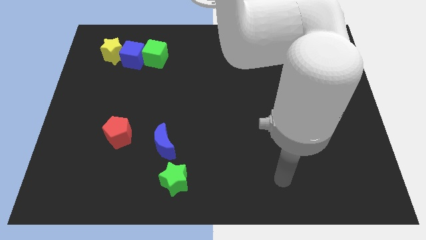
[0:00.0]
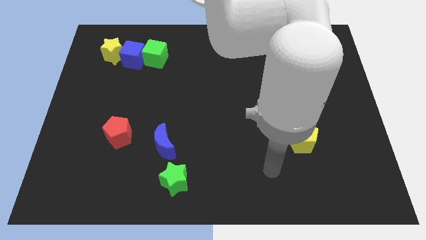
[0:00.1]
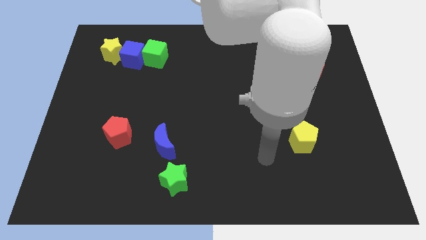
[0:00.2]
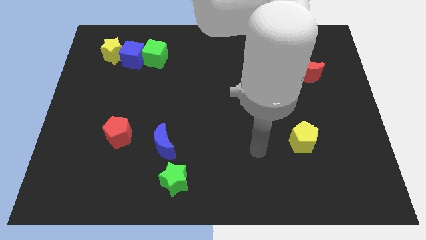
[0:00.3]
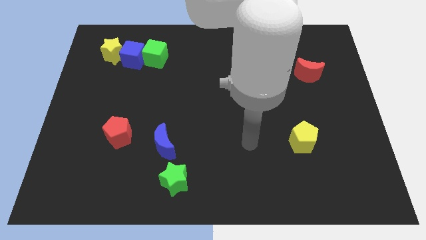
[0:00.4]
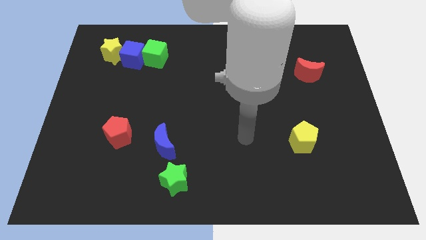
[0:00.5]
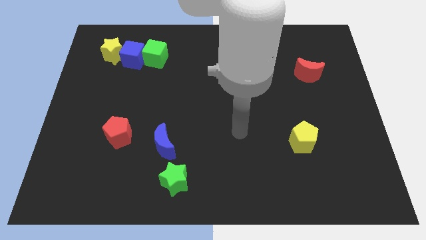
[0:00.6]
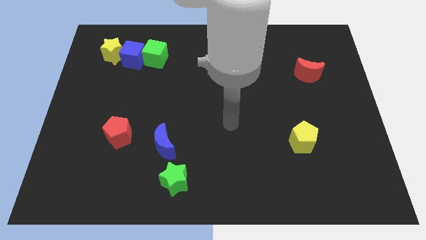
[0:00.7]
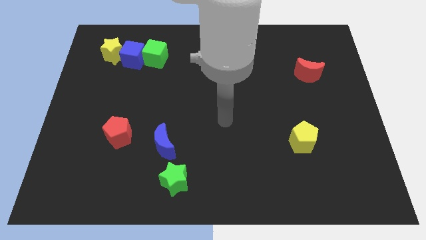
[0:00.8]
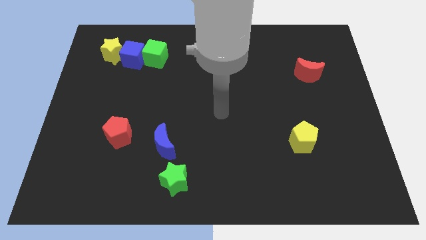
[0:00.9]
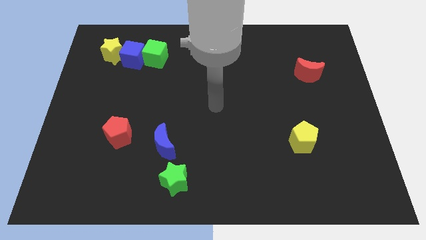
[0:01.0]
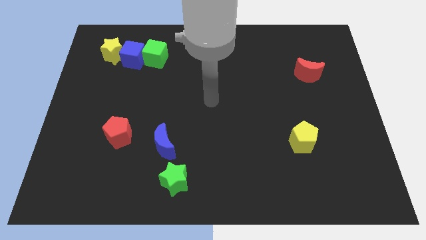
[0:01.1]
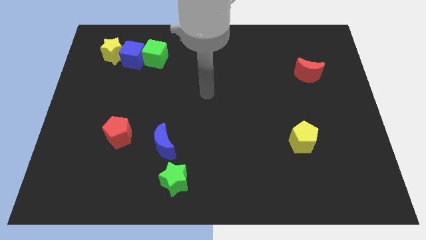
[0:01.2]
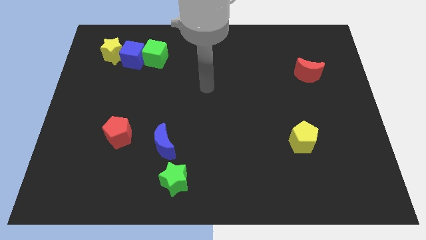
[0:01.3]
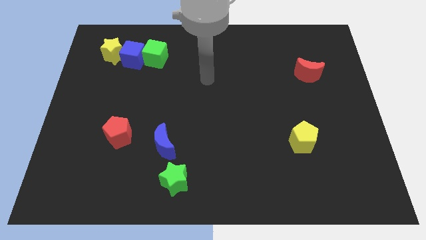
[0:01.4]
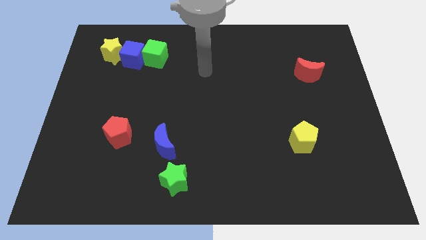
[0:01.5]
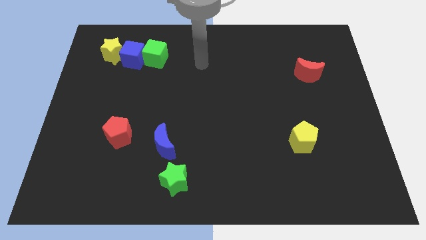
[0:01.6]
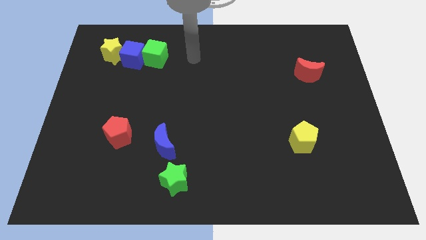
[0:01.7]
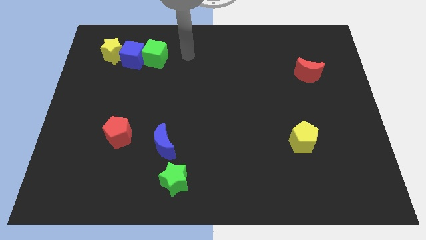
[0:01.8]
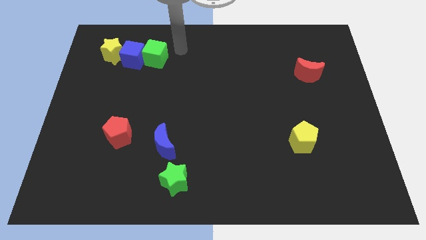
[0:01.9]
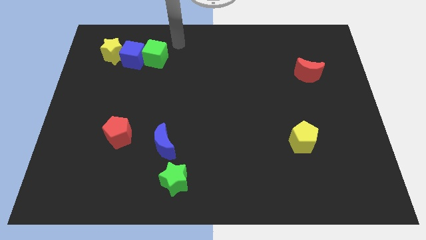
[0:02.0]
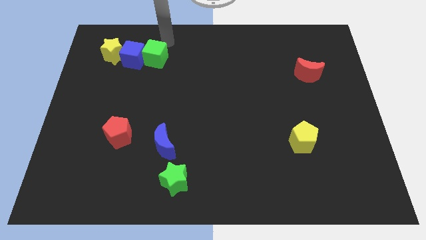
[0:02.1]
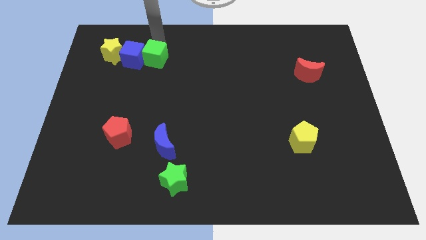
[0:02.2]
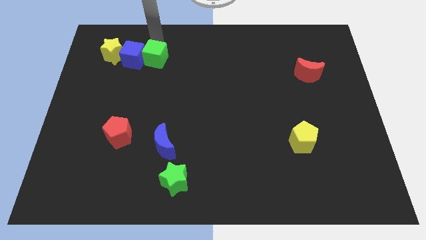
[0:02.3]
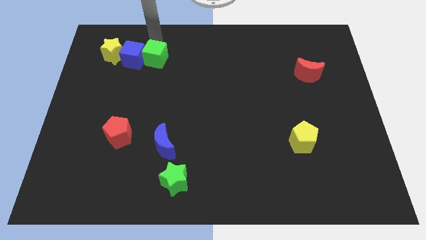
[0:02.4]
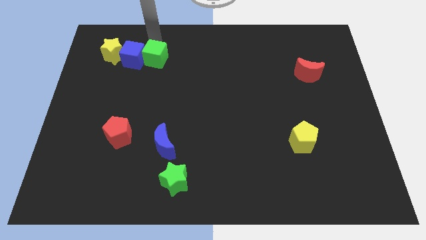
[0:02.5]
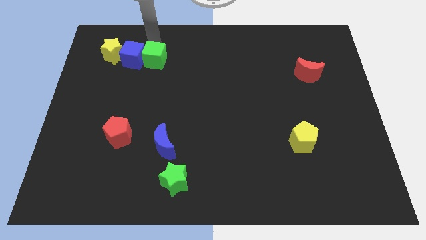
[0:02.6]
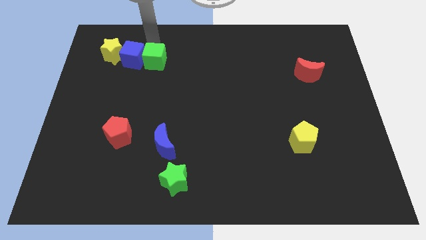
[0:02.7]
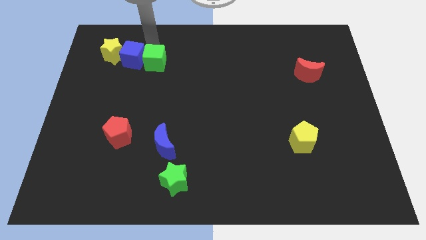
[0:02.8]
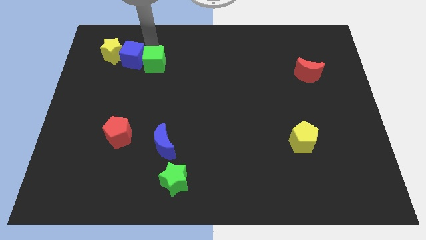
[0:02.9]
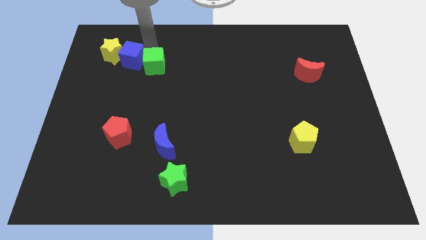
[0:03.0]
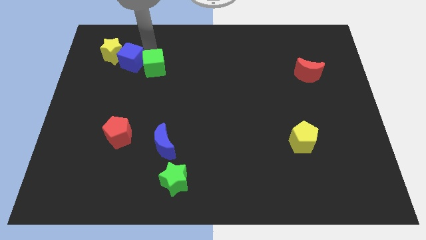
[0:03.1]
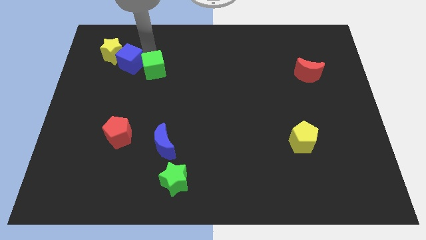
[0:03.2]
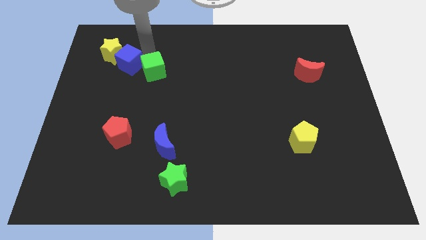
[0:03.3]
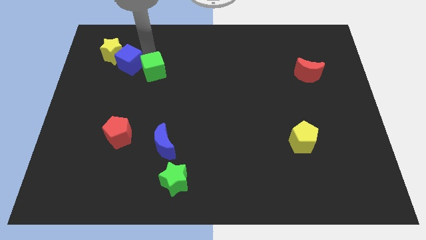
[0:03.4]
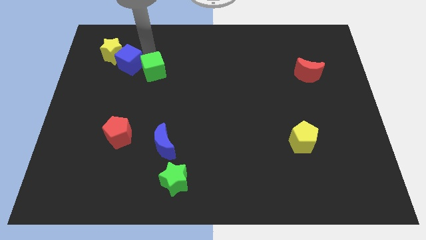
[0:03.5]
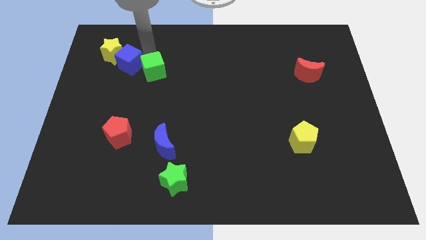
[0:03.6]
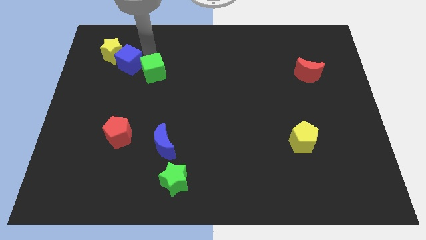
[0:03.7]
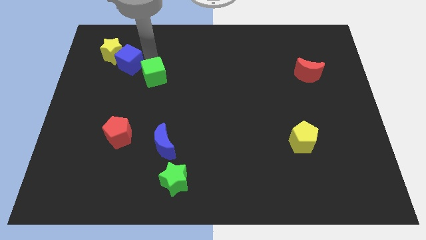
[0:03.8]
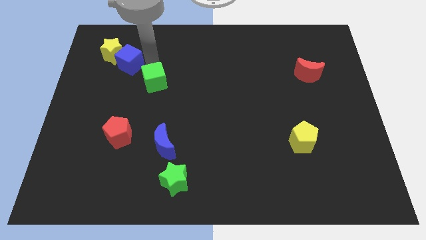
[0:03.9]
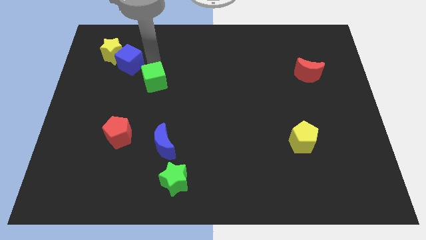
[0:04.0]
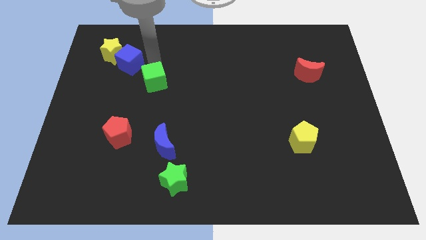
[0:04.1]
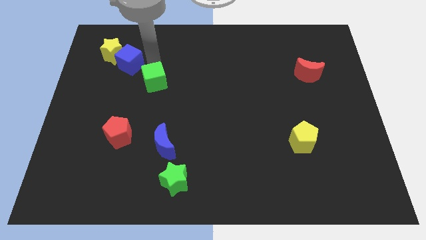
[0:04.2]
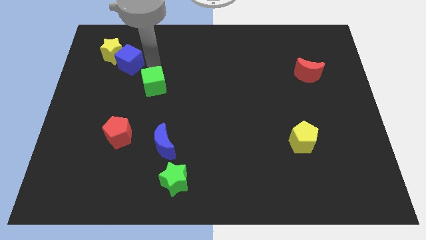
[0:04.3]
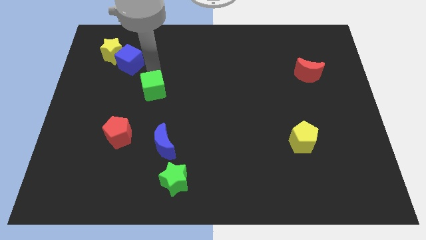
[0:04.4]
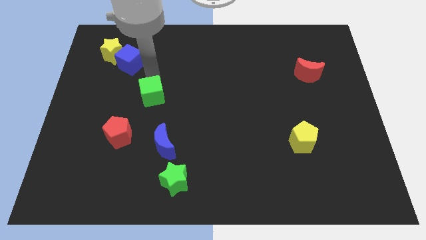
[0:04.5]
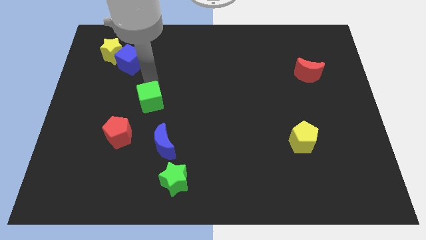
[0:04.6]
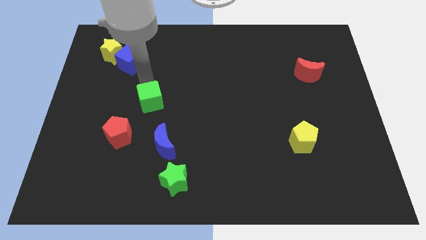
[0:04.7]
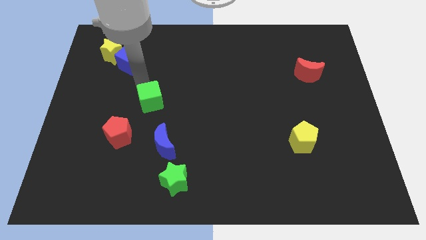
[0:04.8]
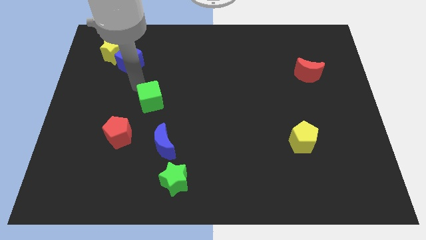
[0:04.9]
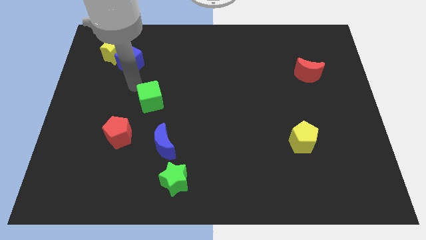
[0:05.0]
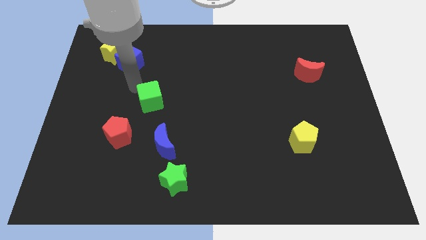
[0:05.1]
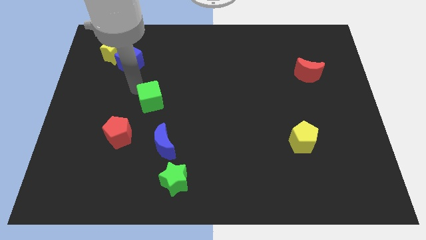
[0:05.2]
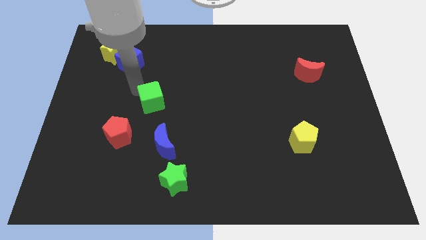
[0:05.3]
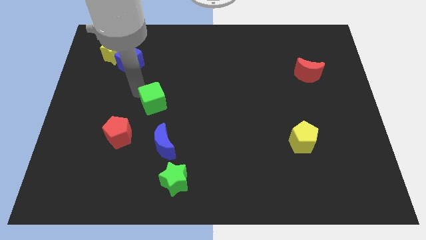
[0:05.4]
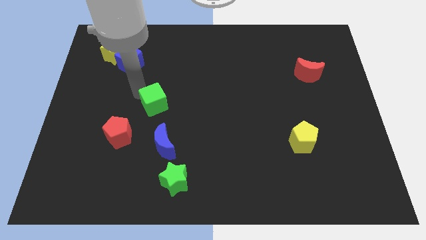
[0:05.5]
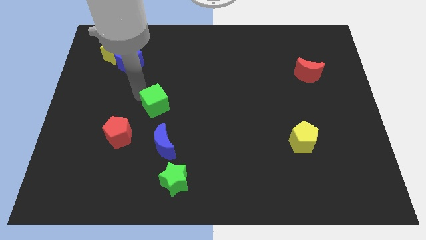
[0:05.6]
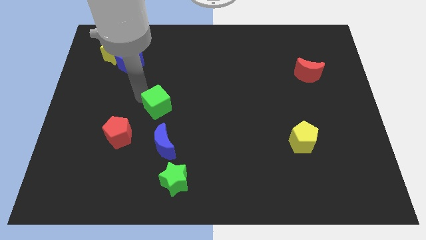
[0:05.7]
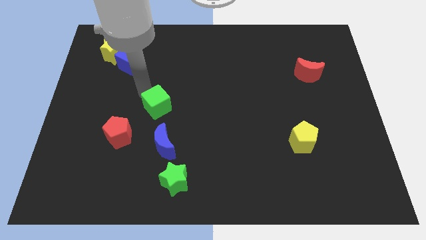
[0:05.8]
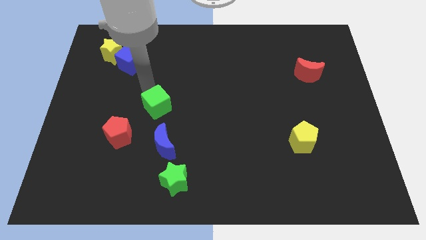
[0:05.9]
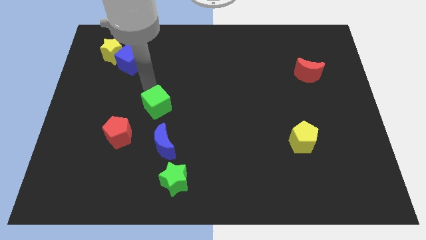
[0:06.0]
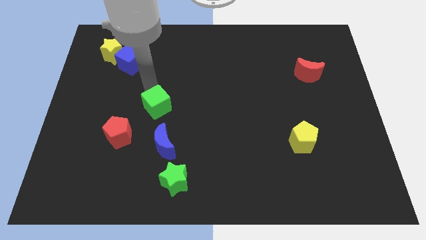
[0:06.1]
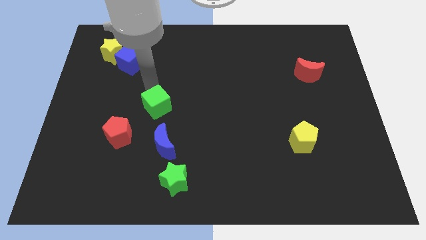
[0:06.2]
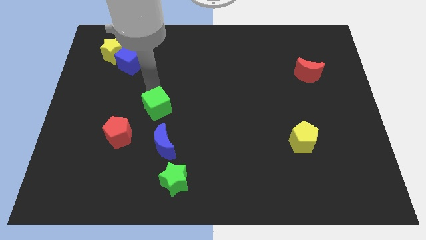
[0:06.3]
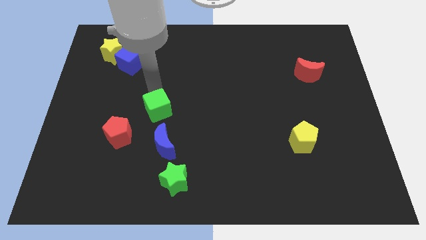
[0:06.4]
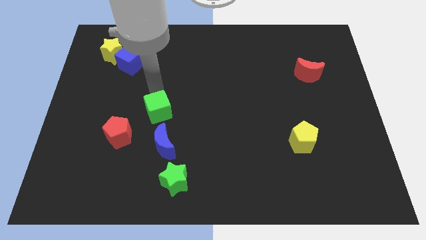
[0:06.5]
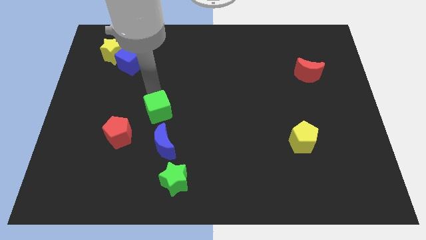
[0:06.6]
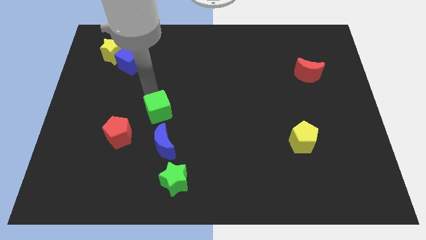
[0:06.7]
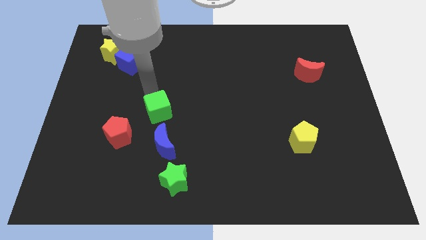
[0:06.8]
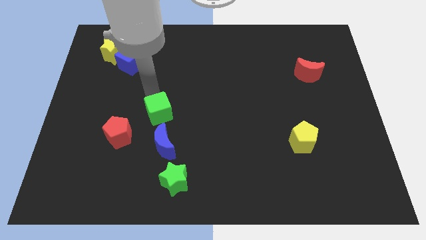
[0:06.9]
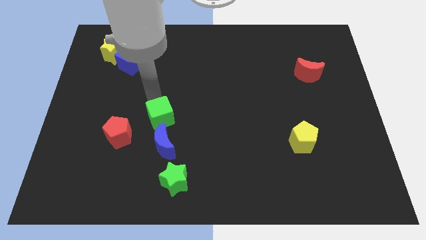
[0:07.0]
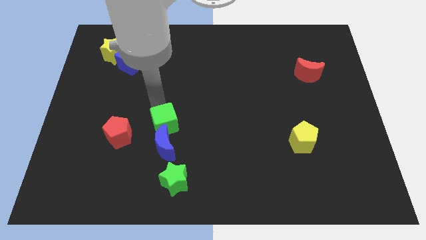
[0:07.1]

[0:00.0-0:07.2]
move the green cube towards the blue moon
